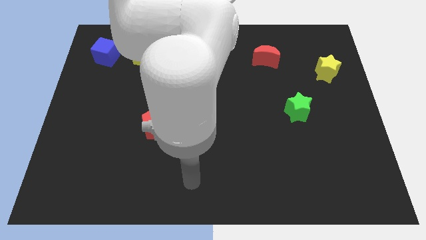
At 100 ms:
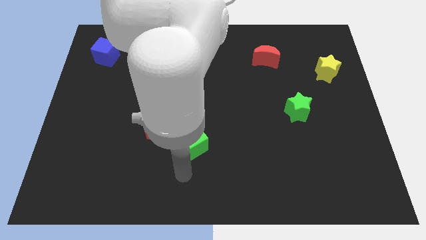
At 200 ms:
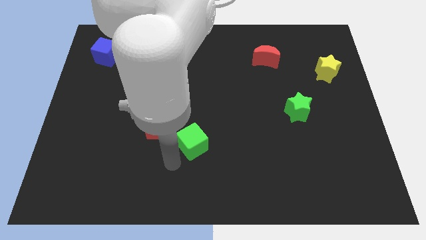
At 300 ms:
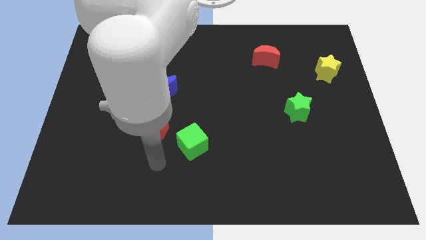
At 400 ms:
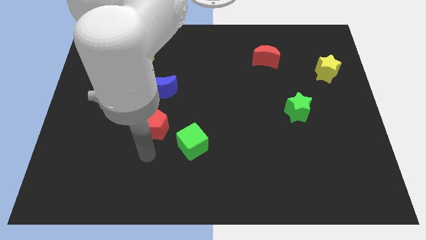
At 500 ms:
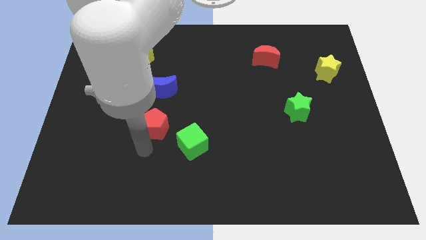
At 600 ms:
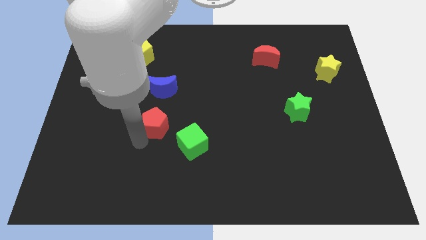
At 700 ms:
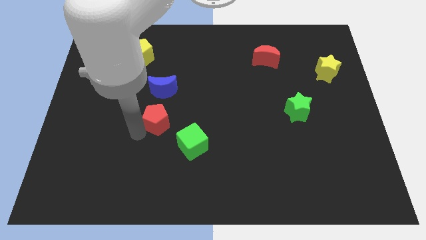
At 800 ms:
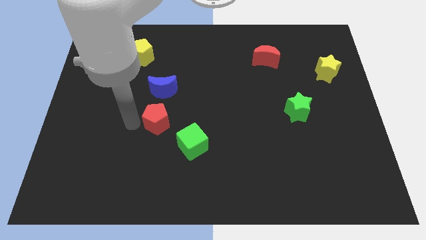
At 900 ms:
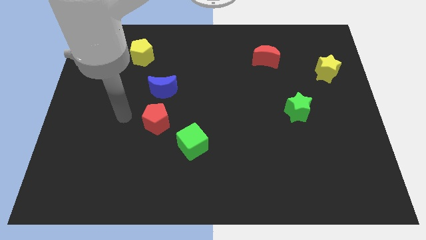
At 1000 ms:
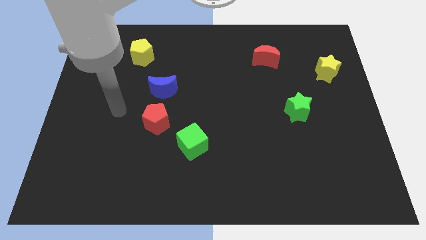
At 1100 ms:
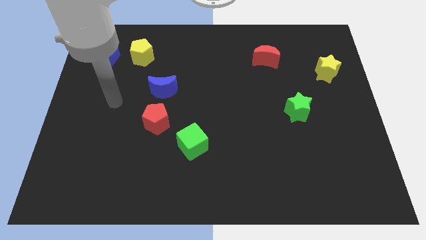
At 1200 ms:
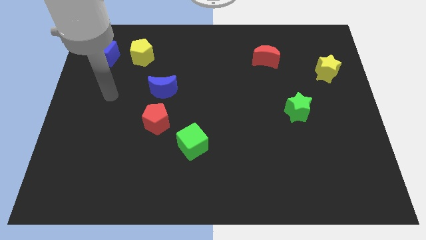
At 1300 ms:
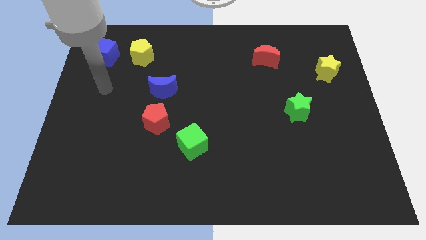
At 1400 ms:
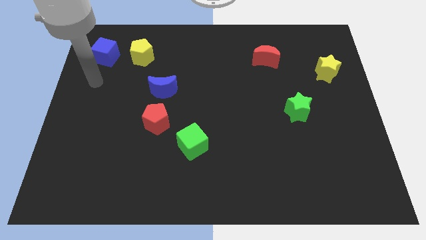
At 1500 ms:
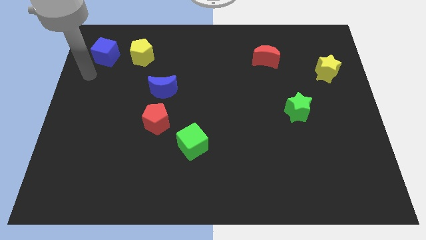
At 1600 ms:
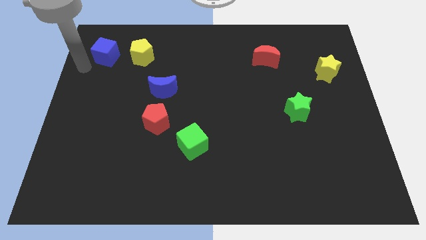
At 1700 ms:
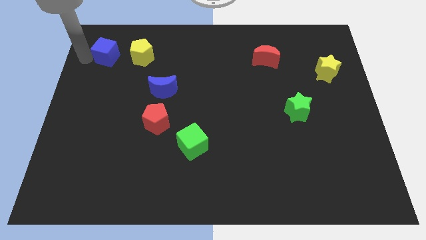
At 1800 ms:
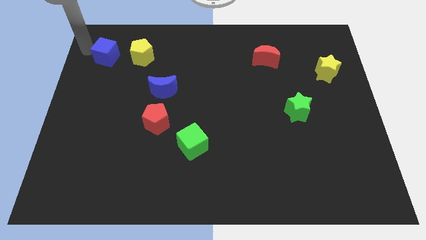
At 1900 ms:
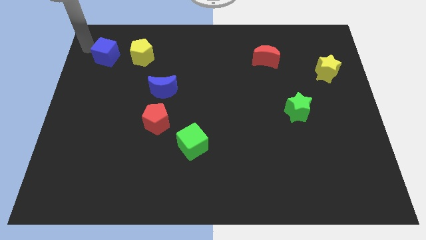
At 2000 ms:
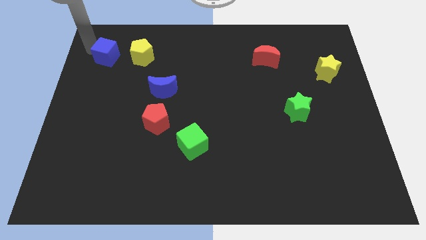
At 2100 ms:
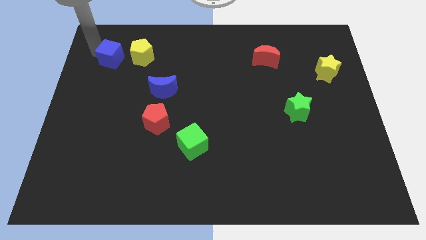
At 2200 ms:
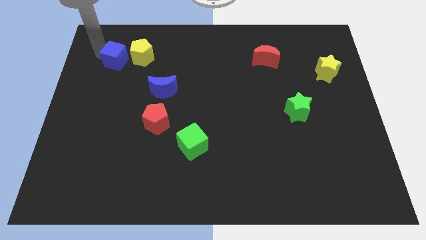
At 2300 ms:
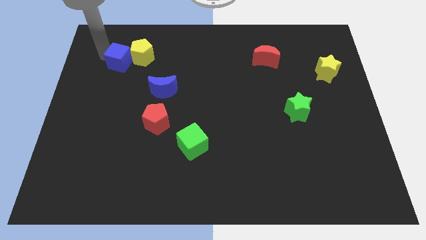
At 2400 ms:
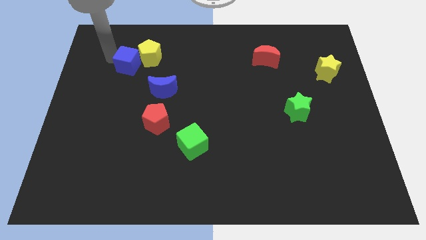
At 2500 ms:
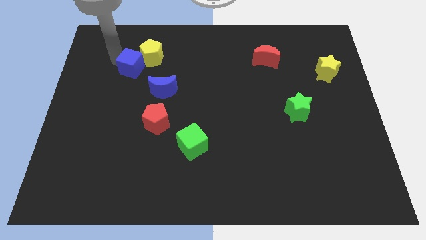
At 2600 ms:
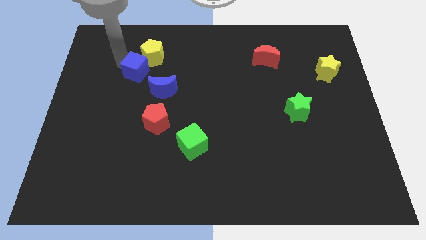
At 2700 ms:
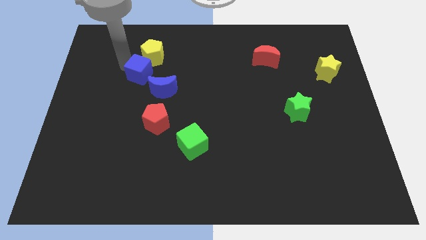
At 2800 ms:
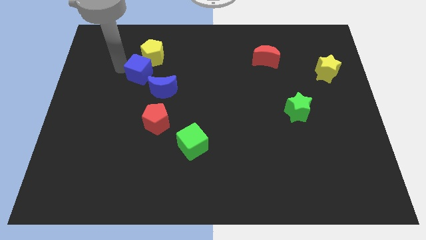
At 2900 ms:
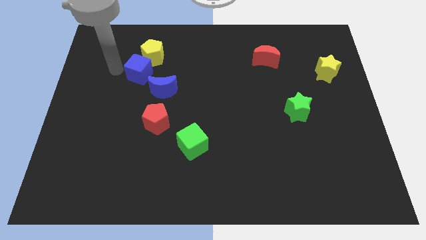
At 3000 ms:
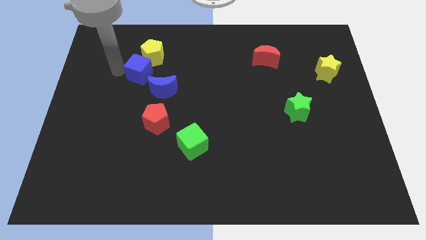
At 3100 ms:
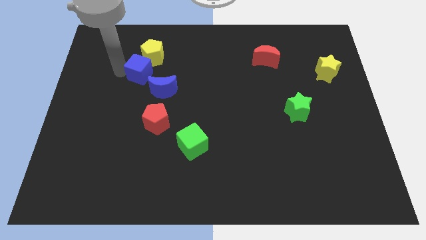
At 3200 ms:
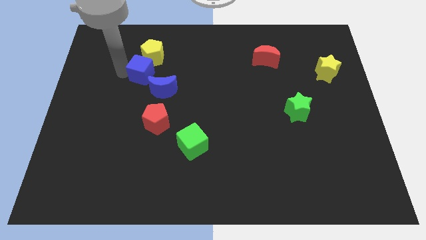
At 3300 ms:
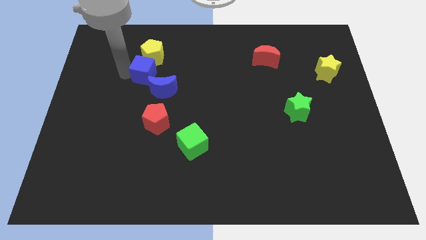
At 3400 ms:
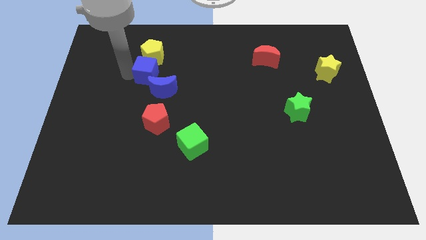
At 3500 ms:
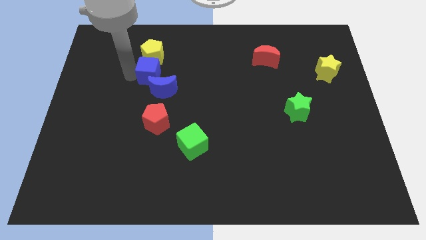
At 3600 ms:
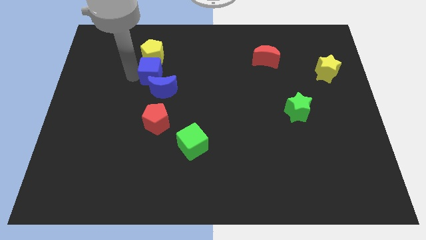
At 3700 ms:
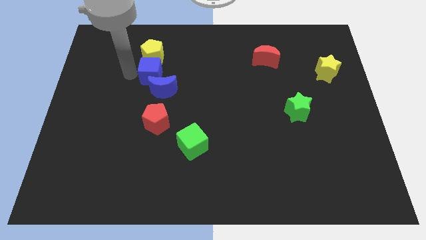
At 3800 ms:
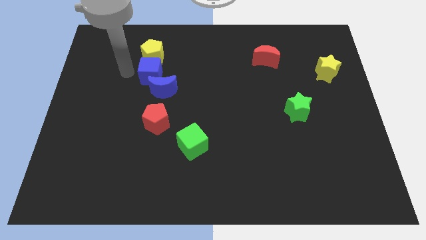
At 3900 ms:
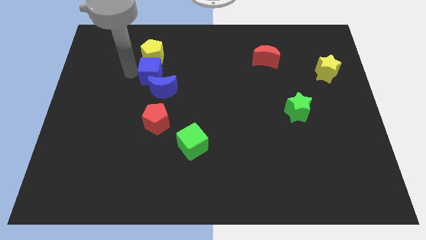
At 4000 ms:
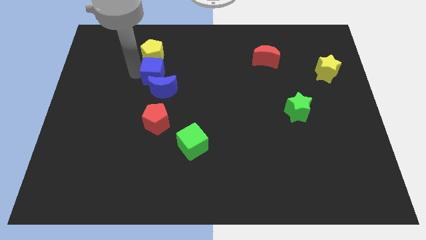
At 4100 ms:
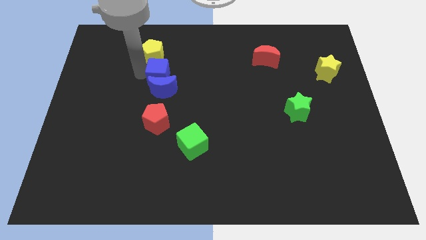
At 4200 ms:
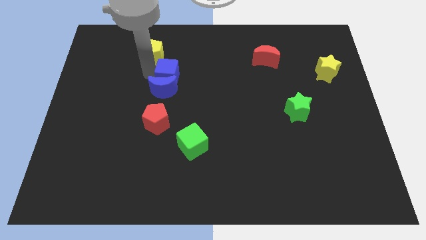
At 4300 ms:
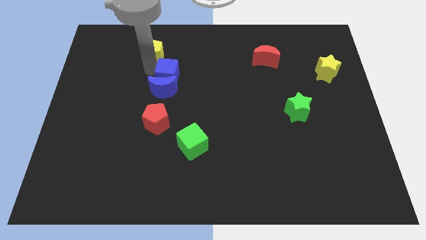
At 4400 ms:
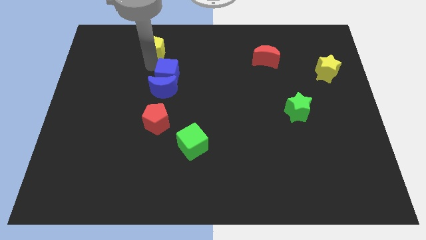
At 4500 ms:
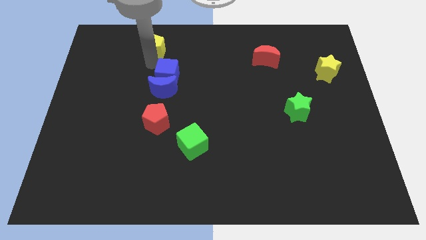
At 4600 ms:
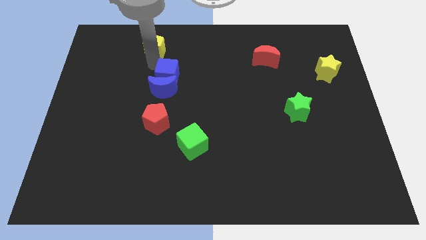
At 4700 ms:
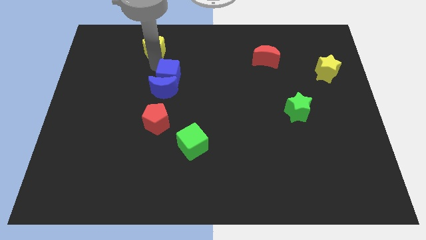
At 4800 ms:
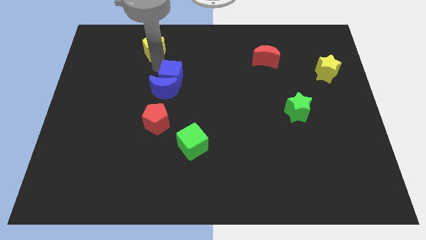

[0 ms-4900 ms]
slide the blue cube to the middle

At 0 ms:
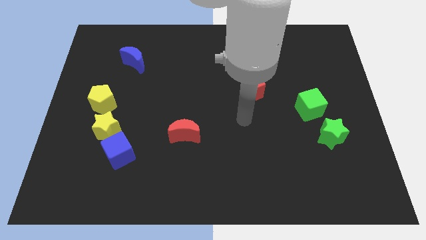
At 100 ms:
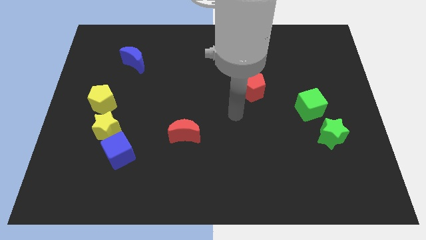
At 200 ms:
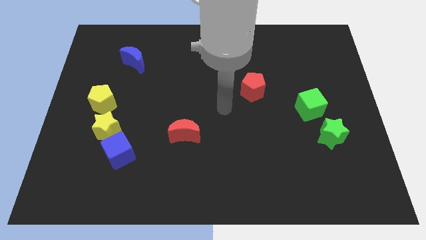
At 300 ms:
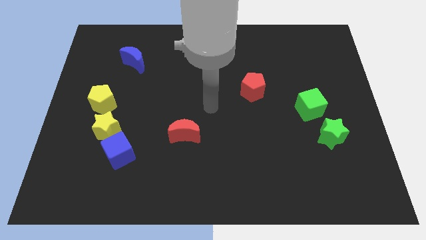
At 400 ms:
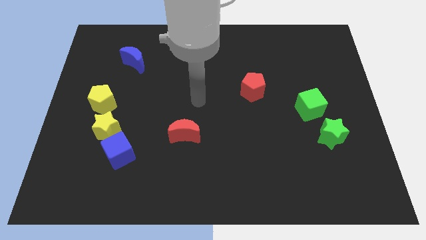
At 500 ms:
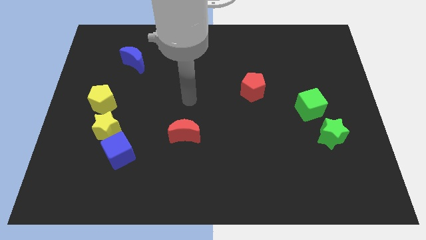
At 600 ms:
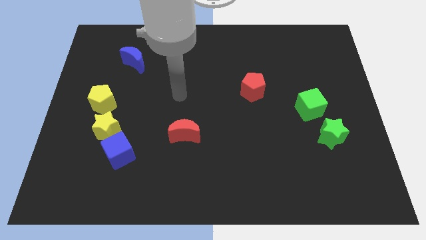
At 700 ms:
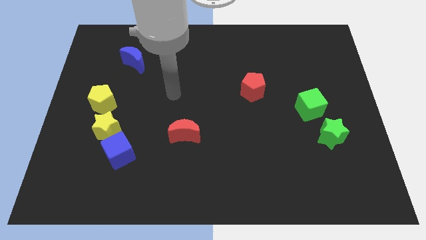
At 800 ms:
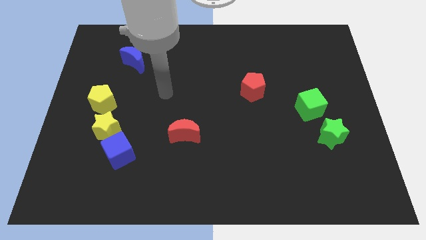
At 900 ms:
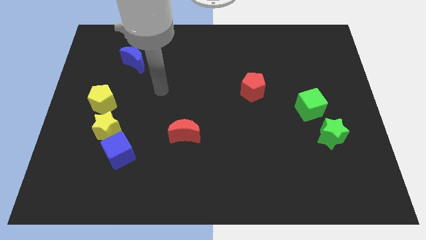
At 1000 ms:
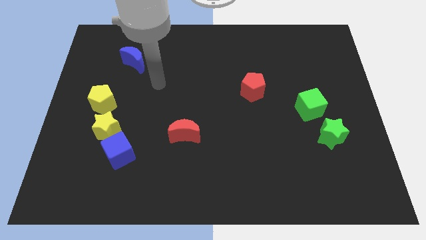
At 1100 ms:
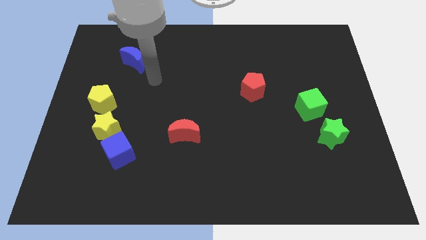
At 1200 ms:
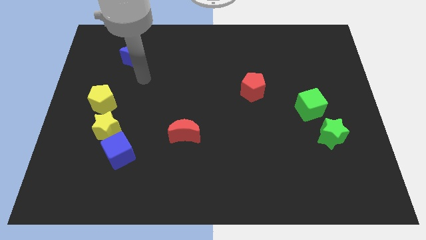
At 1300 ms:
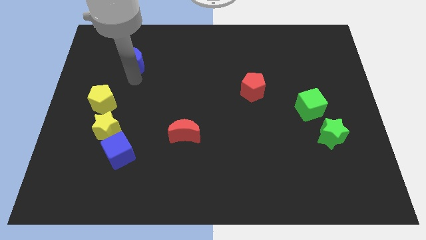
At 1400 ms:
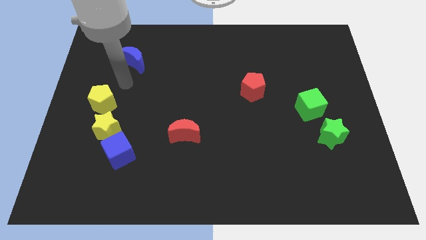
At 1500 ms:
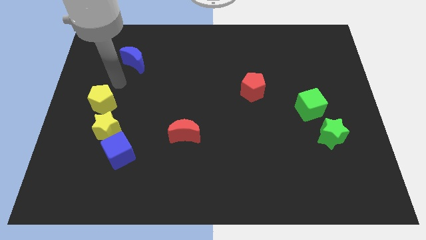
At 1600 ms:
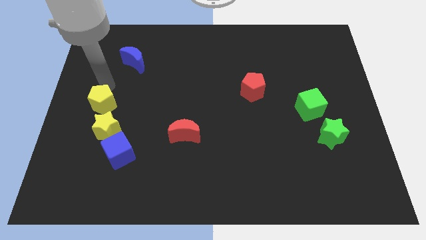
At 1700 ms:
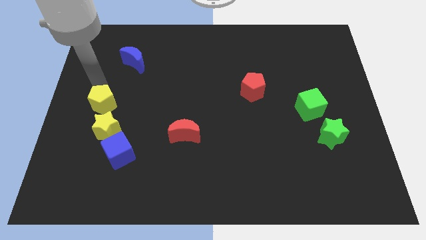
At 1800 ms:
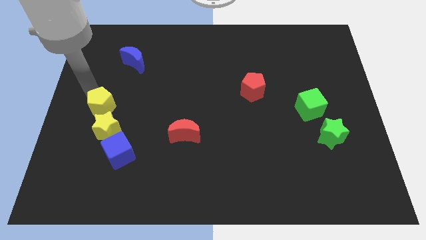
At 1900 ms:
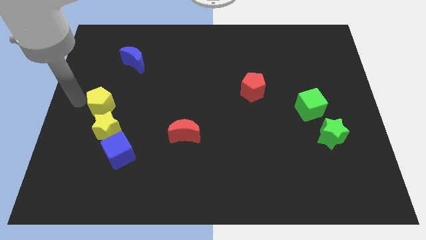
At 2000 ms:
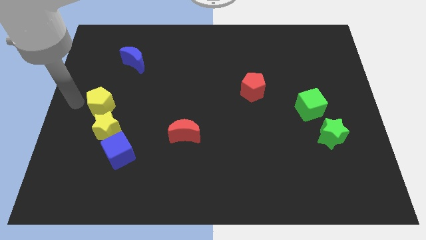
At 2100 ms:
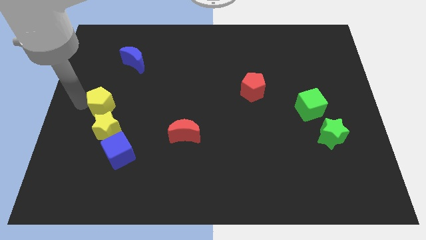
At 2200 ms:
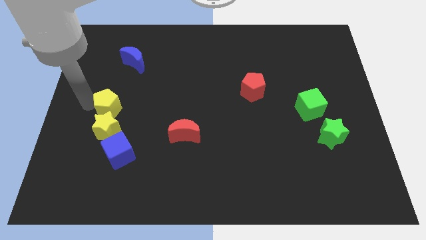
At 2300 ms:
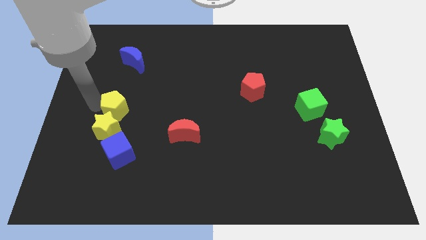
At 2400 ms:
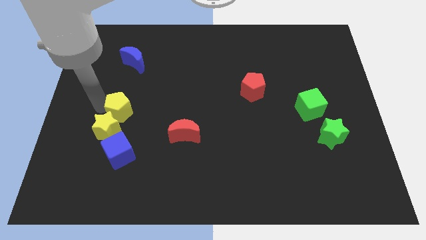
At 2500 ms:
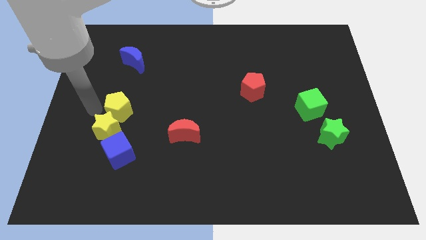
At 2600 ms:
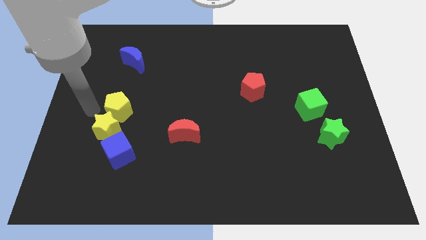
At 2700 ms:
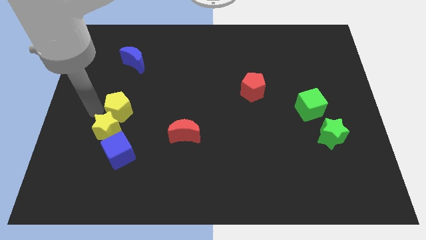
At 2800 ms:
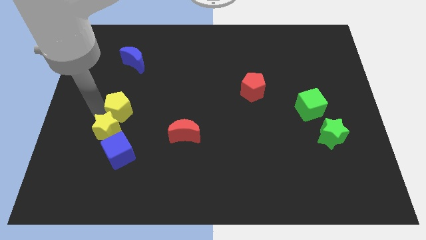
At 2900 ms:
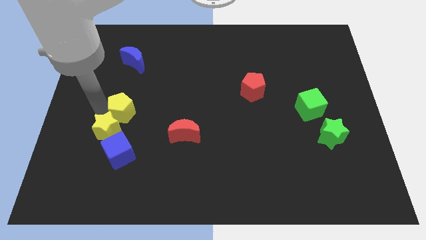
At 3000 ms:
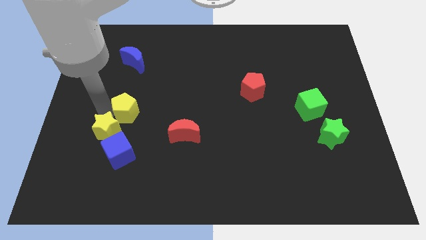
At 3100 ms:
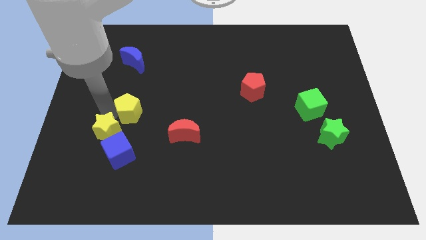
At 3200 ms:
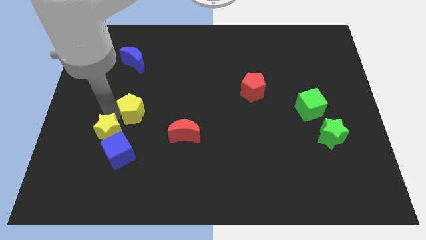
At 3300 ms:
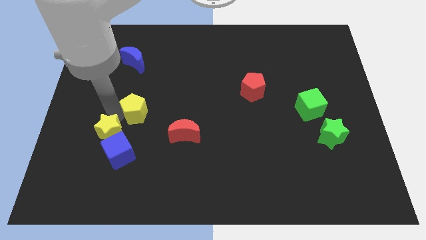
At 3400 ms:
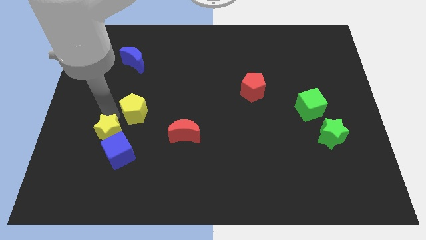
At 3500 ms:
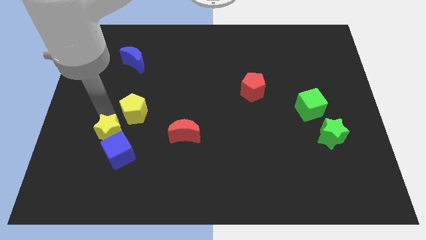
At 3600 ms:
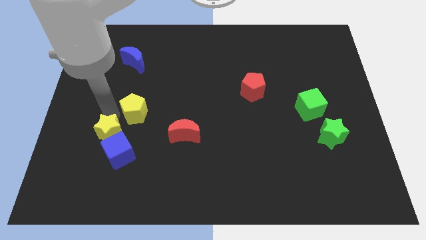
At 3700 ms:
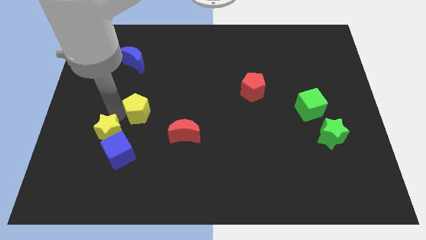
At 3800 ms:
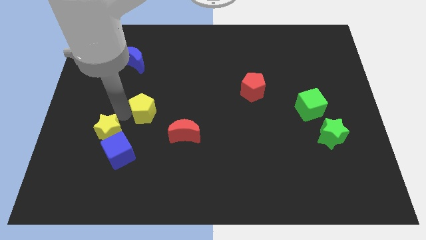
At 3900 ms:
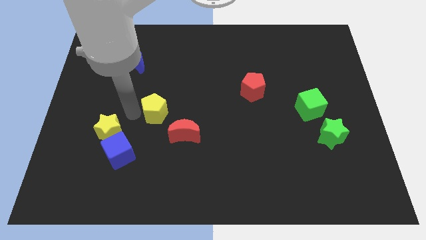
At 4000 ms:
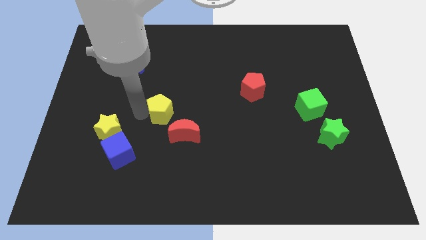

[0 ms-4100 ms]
slide the yellow pentagon to the middle
